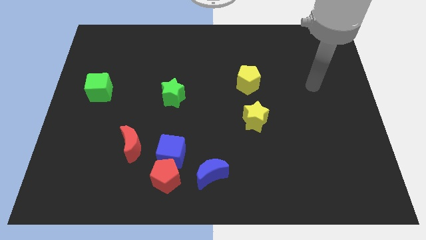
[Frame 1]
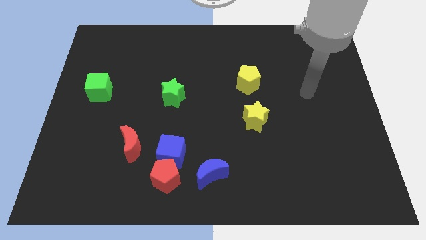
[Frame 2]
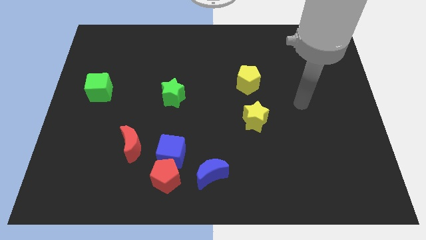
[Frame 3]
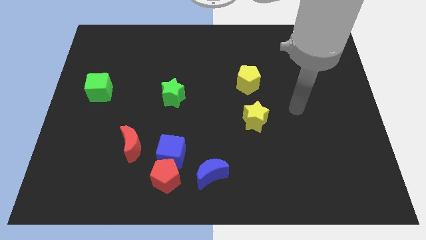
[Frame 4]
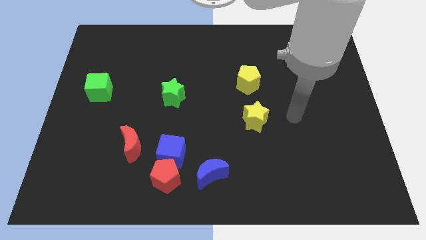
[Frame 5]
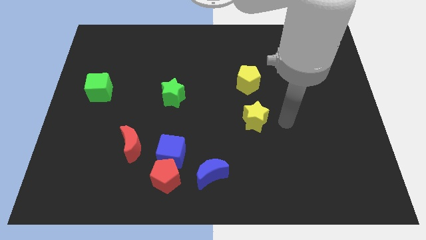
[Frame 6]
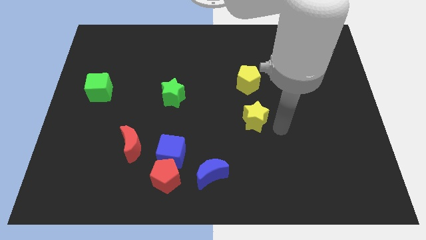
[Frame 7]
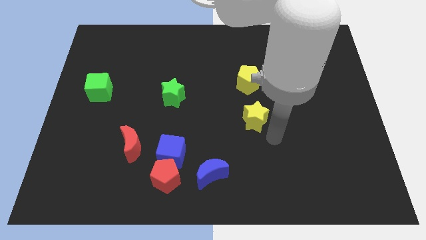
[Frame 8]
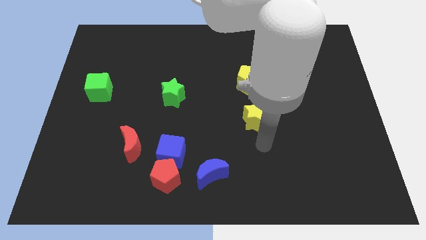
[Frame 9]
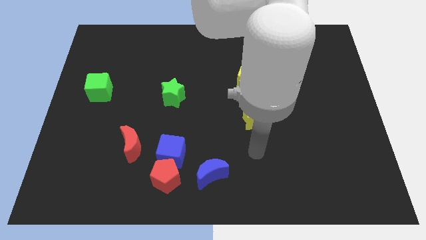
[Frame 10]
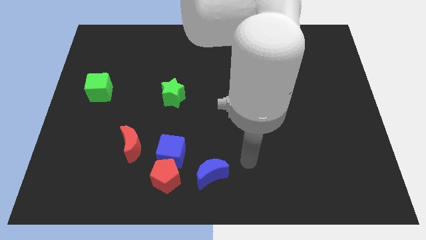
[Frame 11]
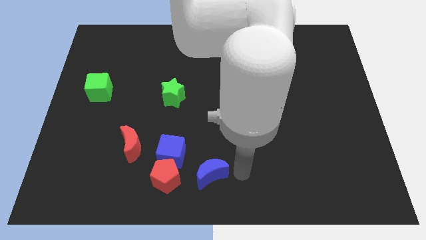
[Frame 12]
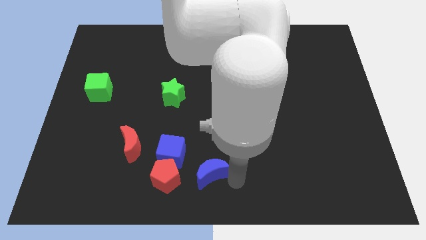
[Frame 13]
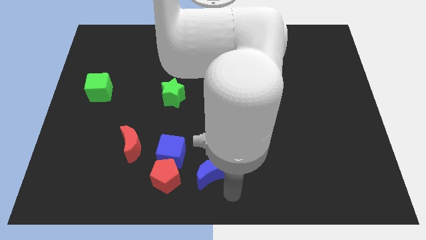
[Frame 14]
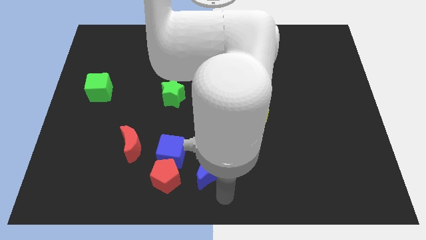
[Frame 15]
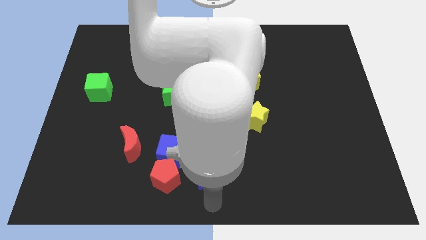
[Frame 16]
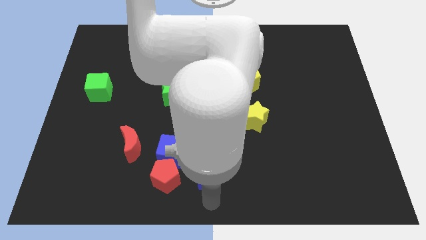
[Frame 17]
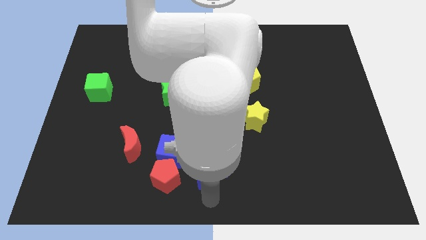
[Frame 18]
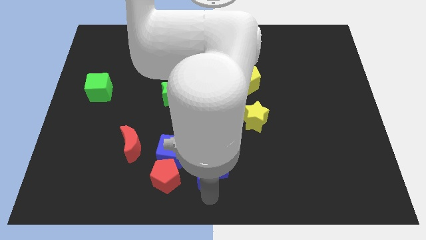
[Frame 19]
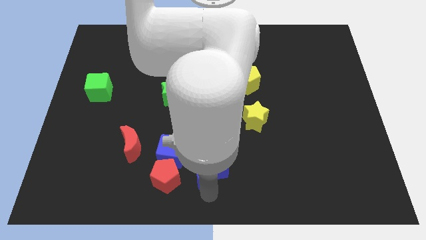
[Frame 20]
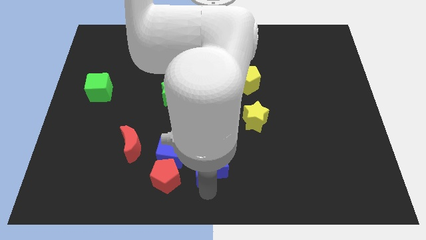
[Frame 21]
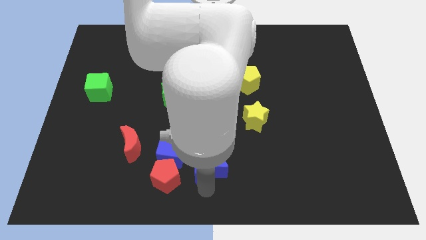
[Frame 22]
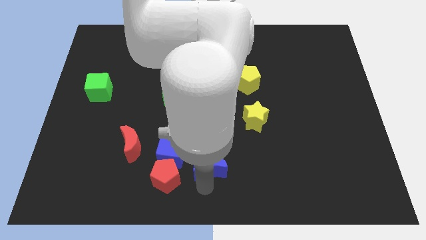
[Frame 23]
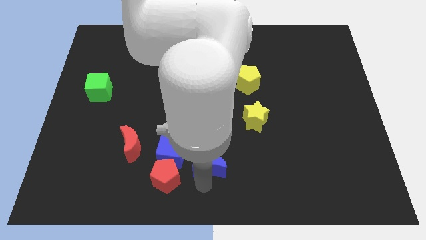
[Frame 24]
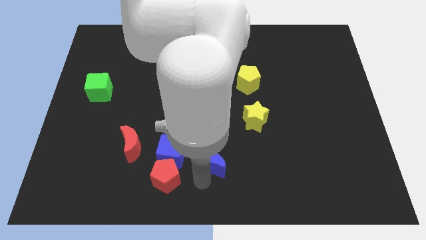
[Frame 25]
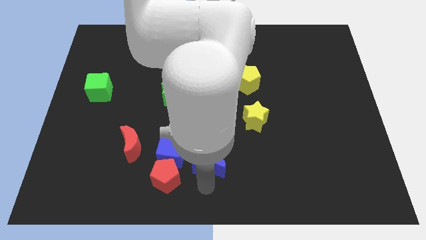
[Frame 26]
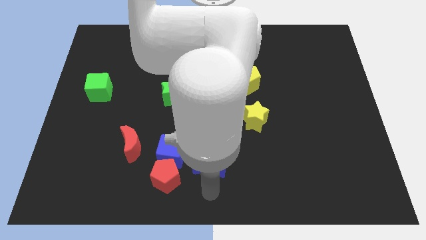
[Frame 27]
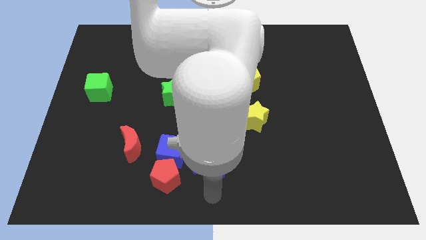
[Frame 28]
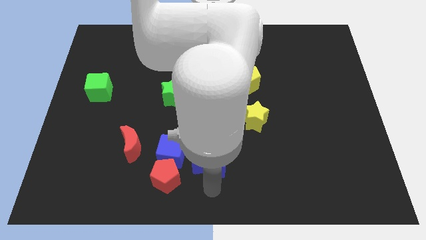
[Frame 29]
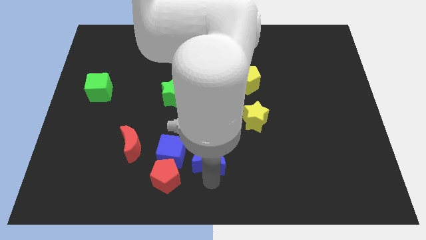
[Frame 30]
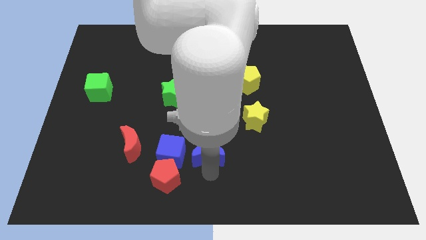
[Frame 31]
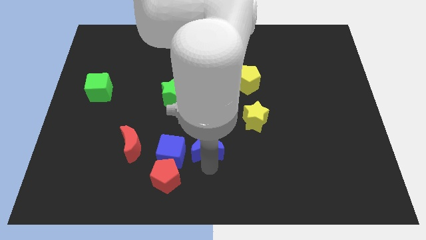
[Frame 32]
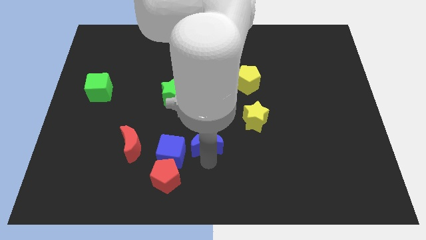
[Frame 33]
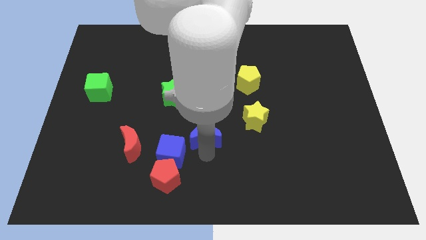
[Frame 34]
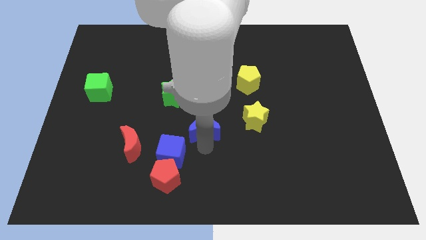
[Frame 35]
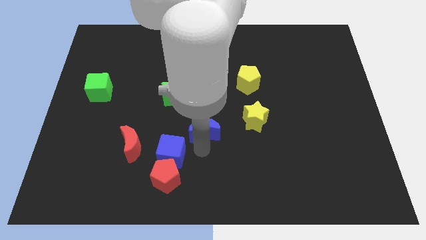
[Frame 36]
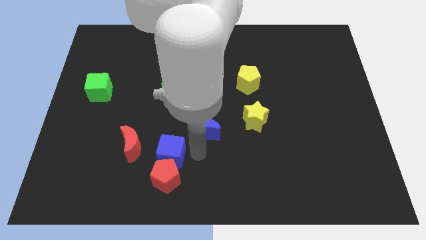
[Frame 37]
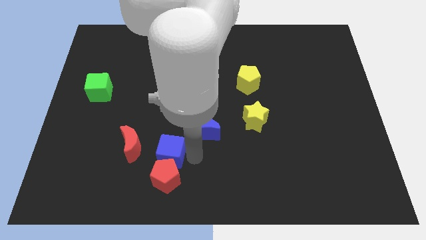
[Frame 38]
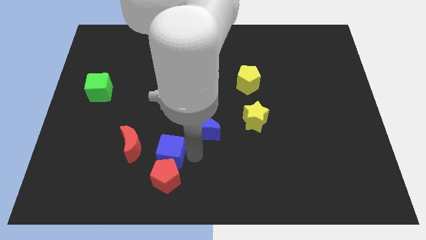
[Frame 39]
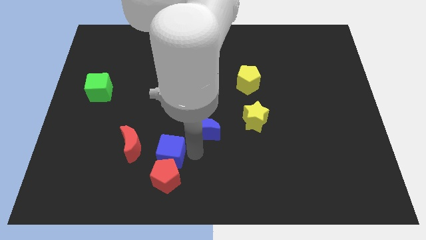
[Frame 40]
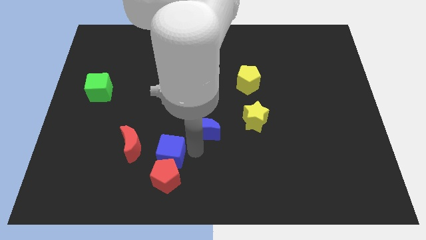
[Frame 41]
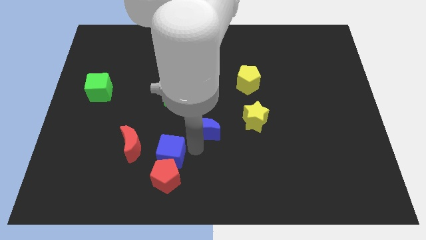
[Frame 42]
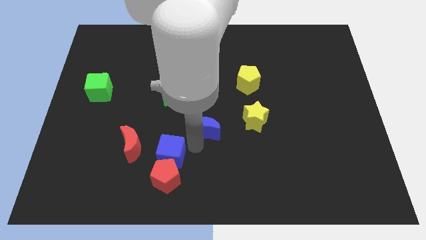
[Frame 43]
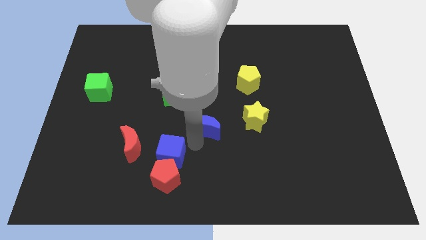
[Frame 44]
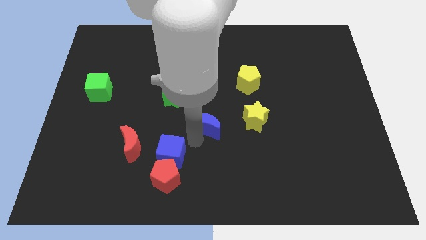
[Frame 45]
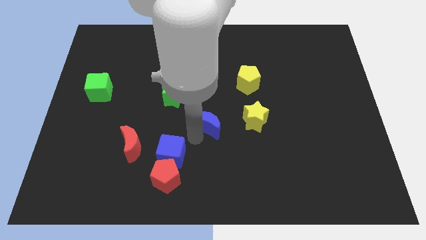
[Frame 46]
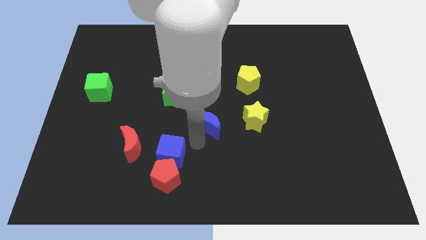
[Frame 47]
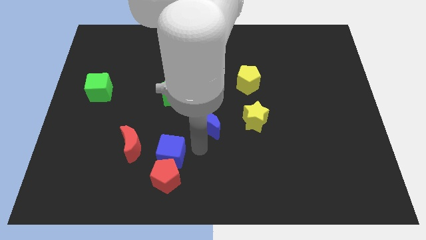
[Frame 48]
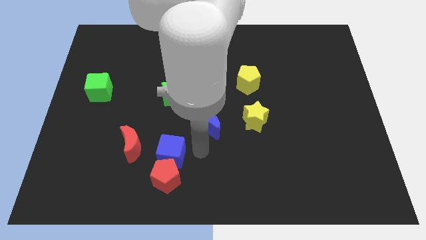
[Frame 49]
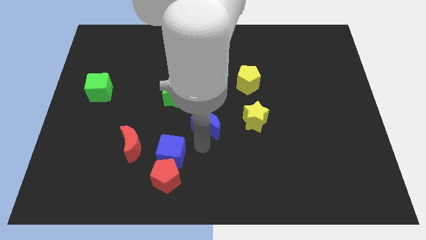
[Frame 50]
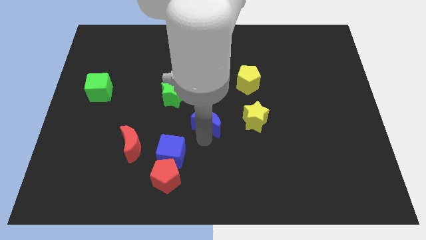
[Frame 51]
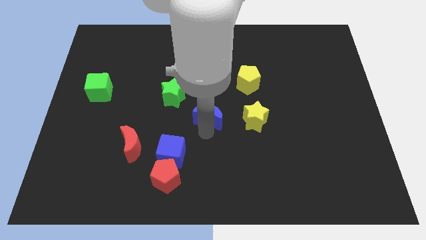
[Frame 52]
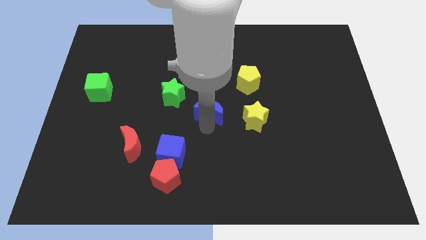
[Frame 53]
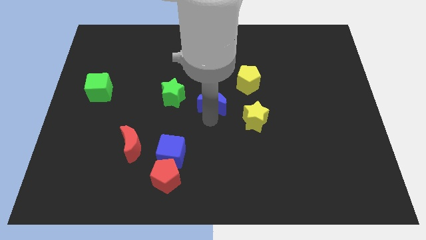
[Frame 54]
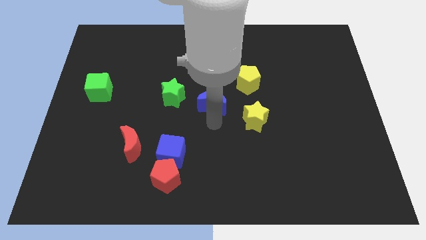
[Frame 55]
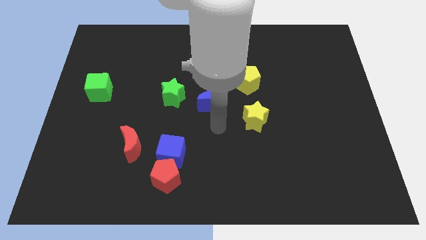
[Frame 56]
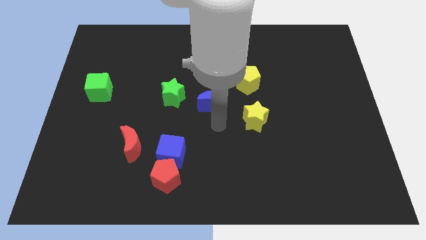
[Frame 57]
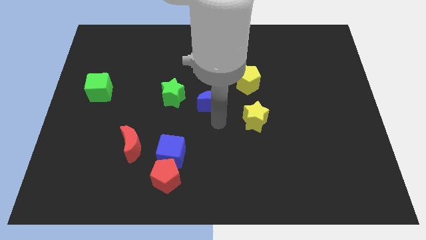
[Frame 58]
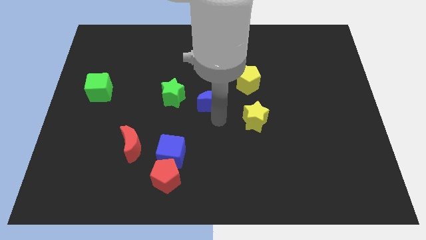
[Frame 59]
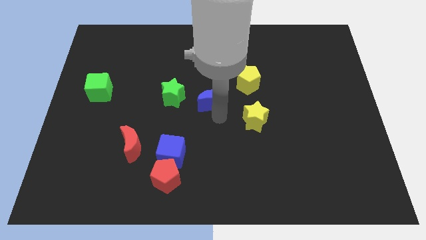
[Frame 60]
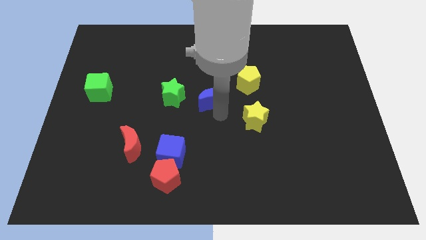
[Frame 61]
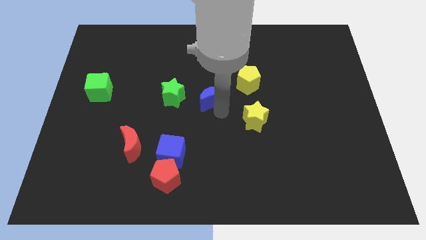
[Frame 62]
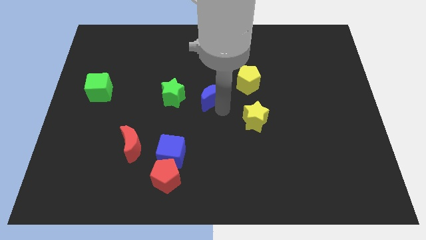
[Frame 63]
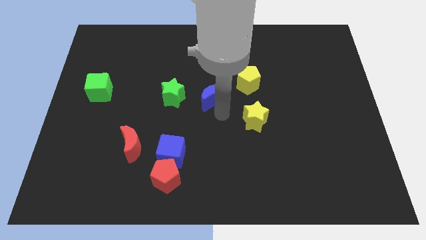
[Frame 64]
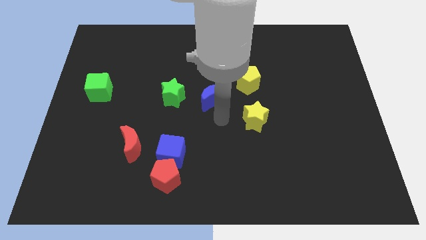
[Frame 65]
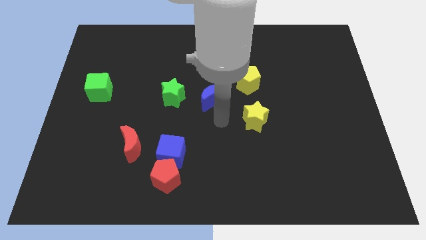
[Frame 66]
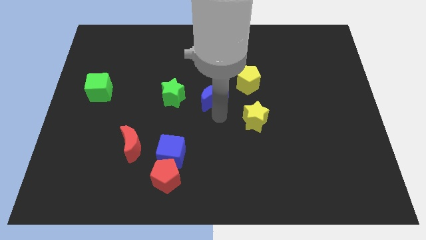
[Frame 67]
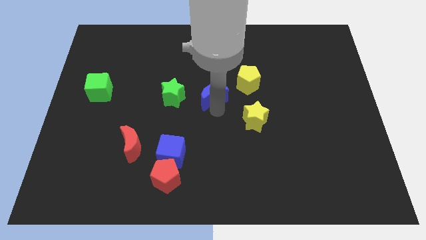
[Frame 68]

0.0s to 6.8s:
push the blue moon left of the yellow pentagon
